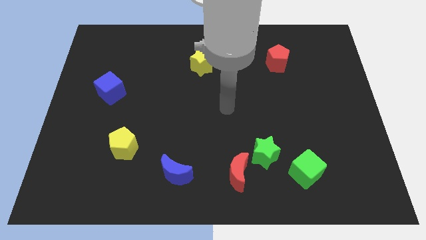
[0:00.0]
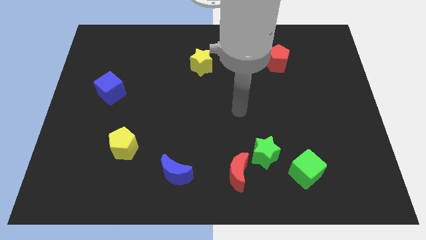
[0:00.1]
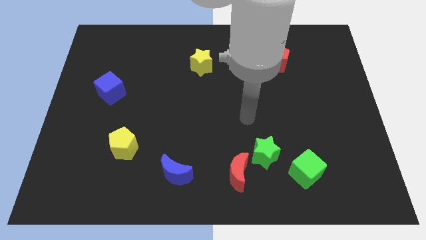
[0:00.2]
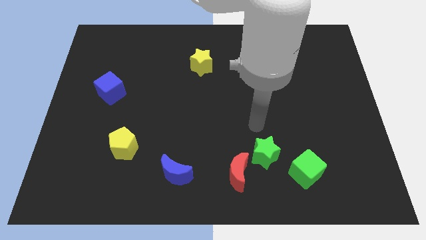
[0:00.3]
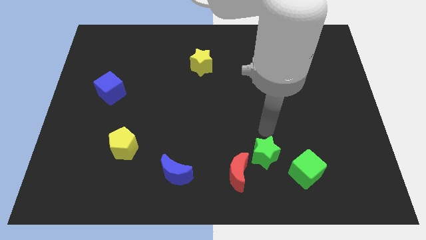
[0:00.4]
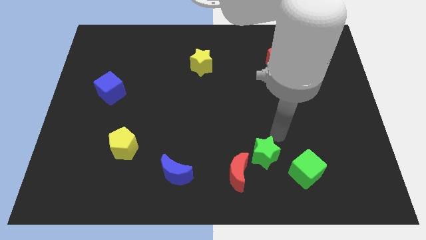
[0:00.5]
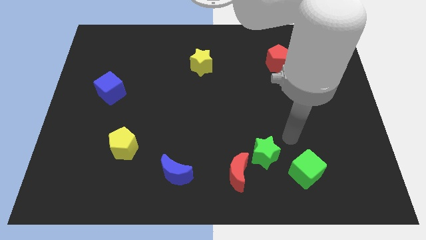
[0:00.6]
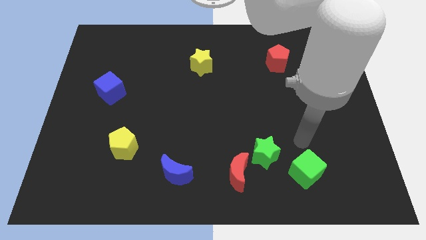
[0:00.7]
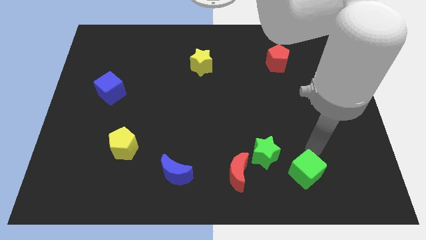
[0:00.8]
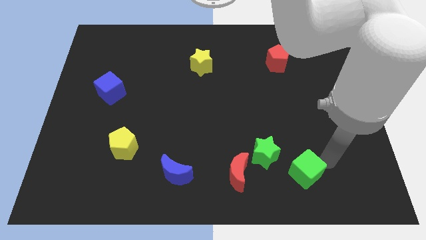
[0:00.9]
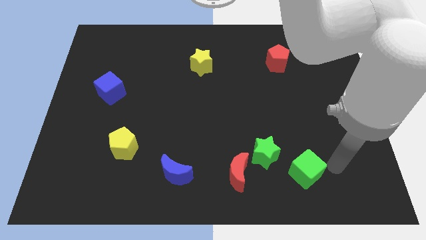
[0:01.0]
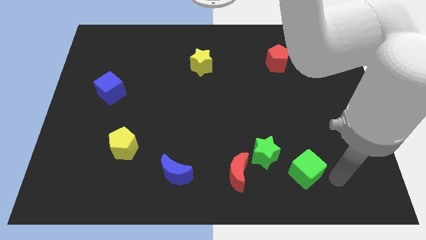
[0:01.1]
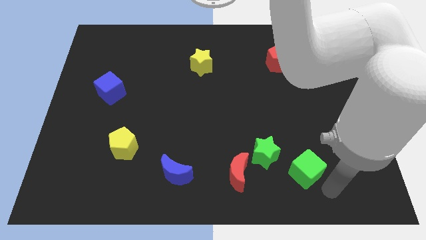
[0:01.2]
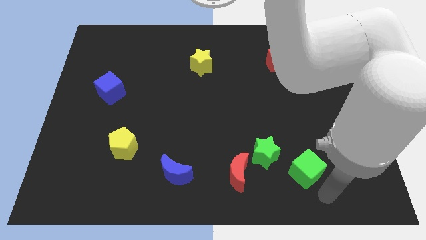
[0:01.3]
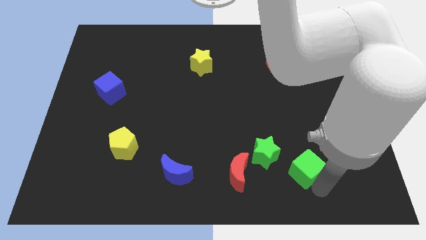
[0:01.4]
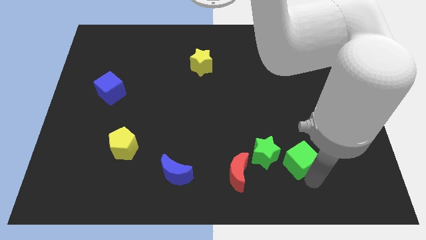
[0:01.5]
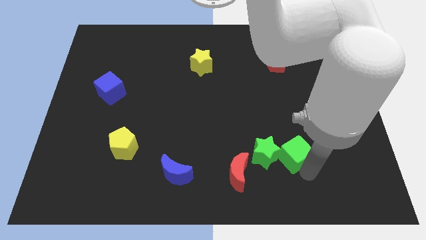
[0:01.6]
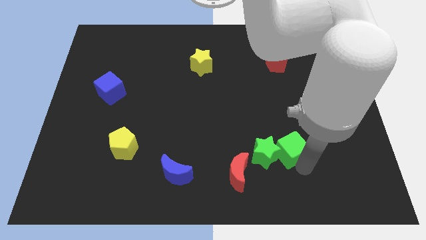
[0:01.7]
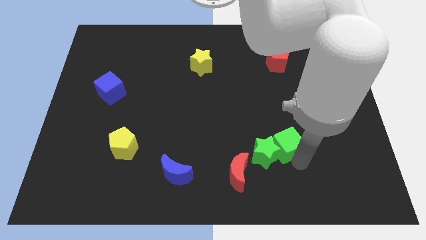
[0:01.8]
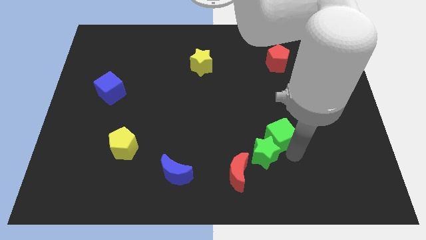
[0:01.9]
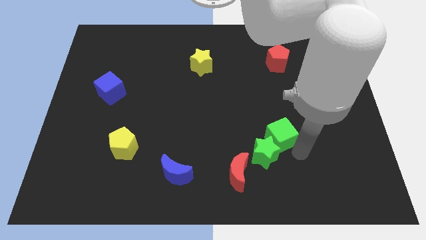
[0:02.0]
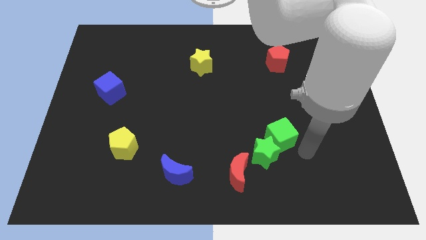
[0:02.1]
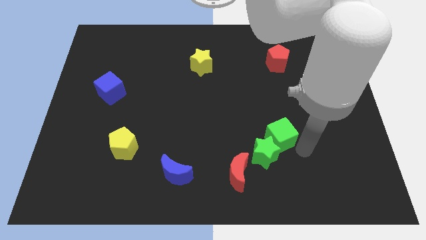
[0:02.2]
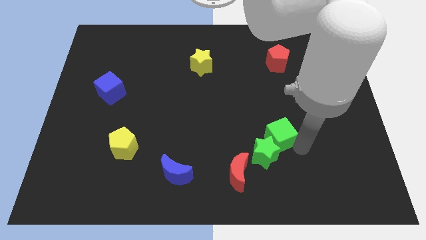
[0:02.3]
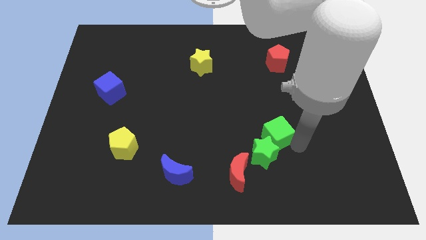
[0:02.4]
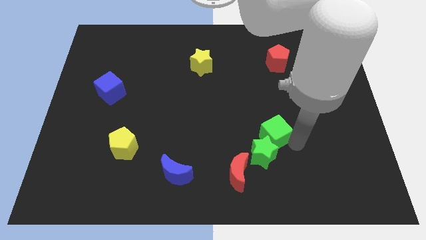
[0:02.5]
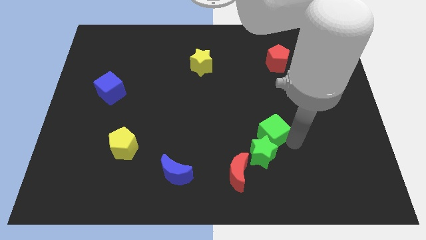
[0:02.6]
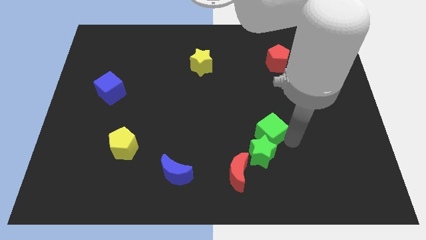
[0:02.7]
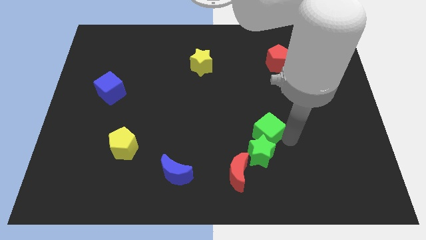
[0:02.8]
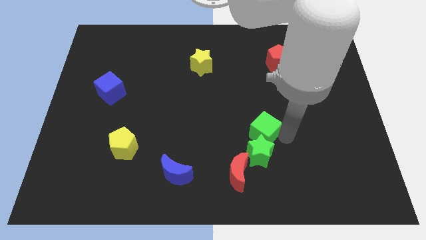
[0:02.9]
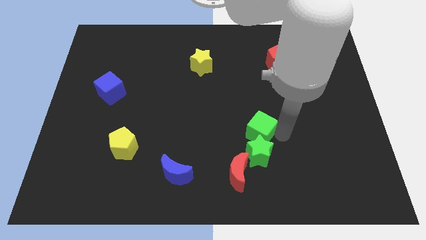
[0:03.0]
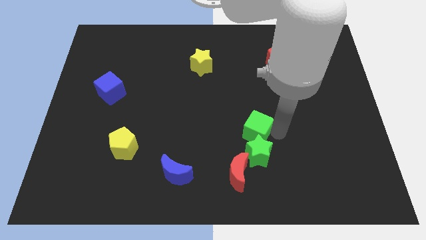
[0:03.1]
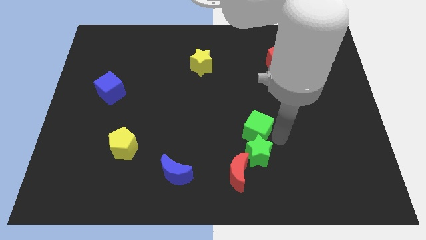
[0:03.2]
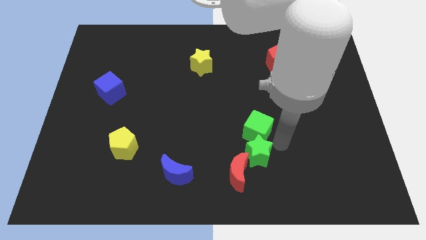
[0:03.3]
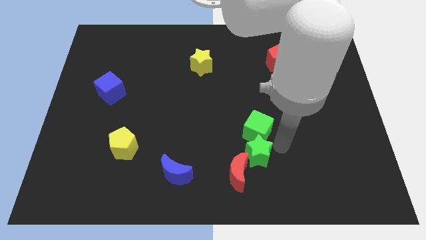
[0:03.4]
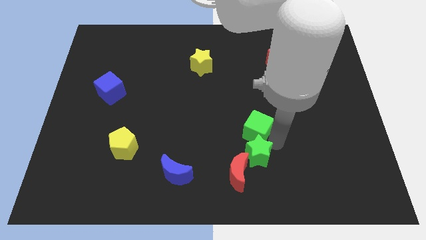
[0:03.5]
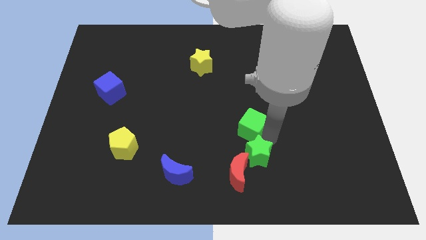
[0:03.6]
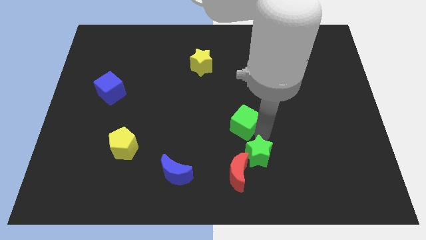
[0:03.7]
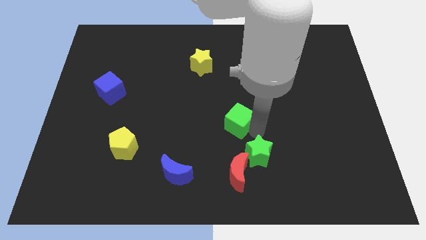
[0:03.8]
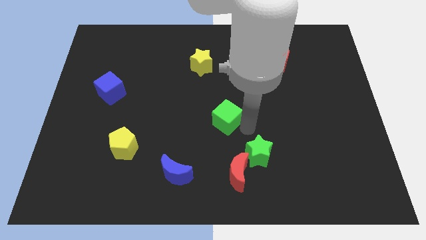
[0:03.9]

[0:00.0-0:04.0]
push the green cube upwards and left

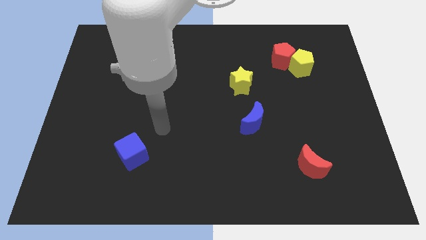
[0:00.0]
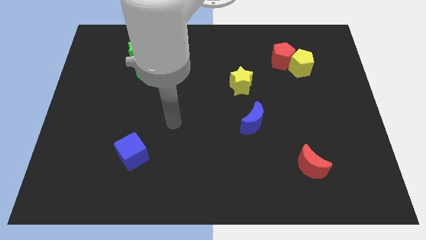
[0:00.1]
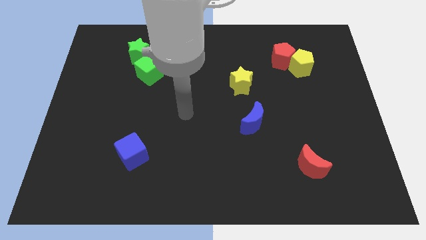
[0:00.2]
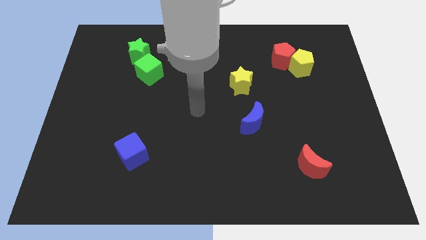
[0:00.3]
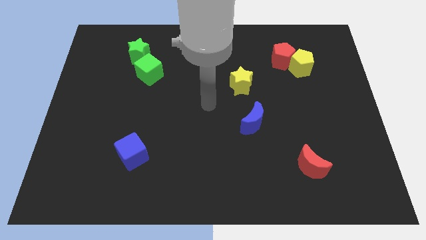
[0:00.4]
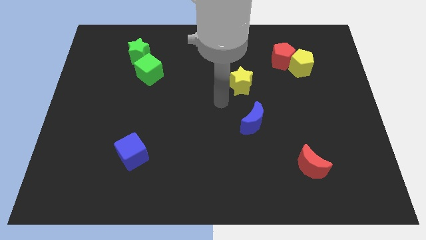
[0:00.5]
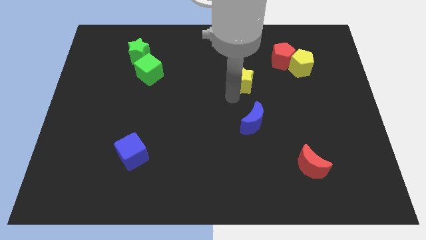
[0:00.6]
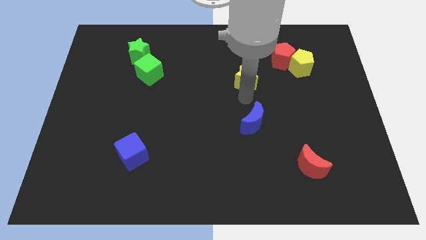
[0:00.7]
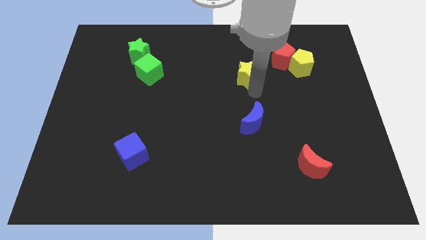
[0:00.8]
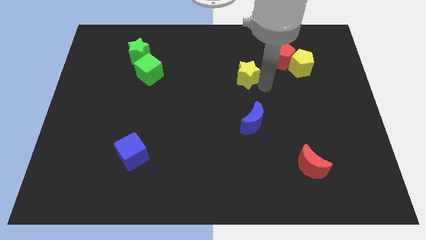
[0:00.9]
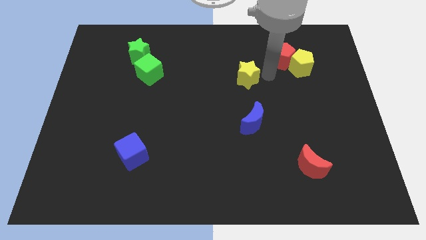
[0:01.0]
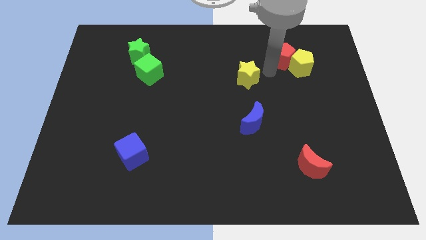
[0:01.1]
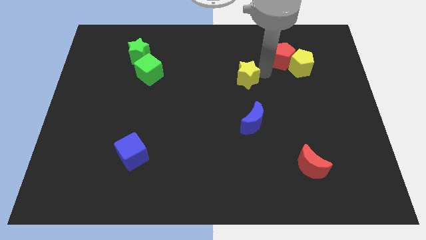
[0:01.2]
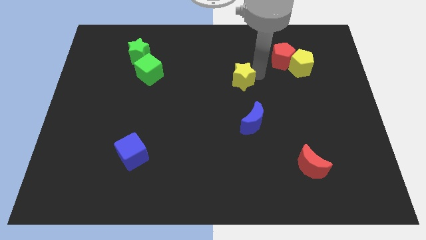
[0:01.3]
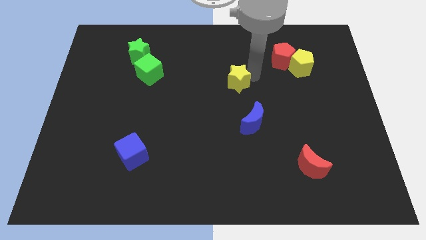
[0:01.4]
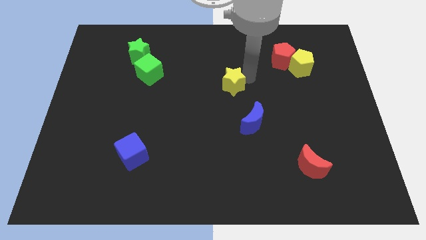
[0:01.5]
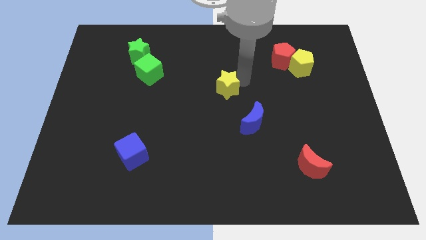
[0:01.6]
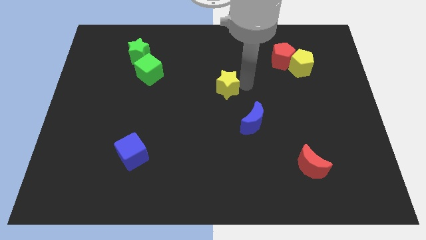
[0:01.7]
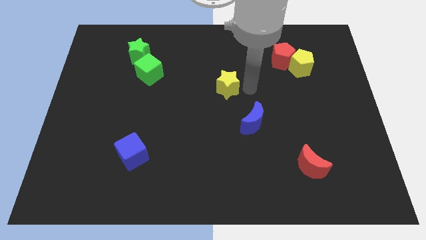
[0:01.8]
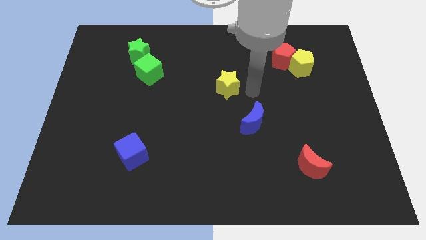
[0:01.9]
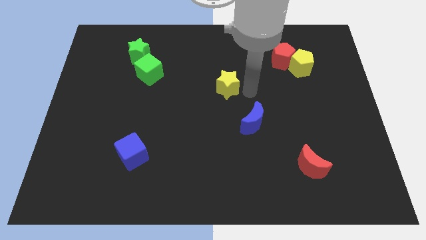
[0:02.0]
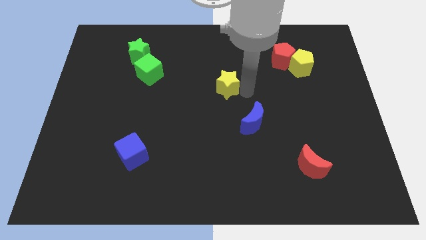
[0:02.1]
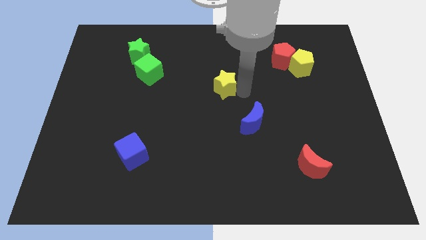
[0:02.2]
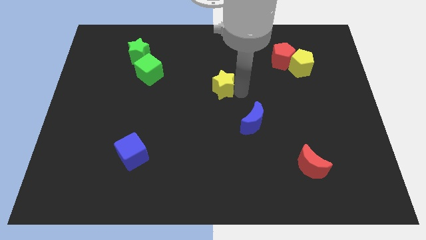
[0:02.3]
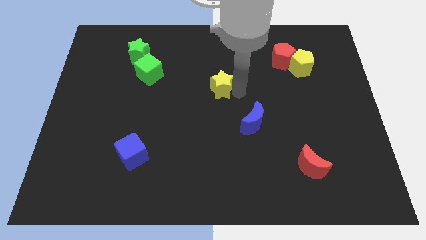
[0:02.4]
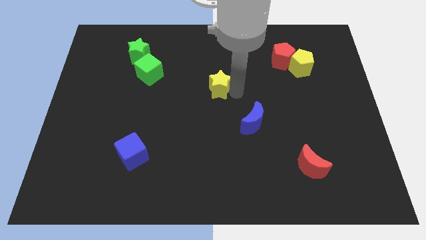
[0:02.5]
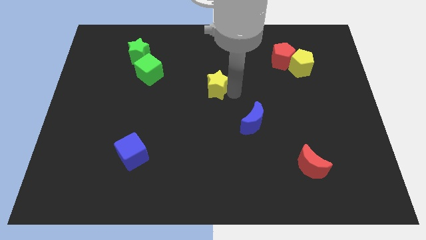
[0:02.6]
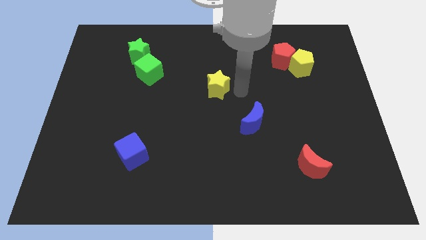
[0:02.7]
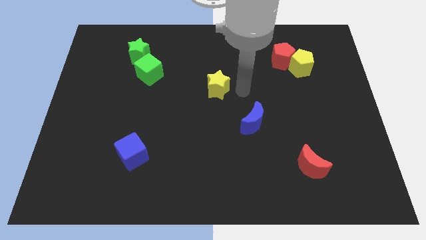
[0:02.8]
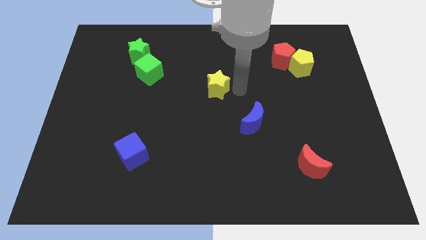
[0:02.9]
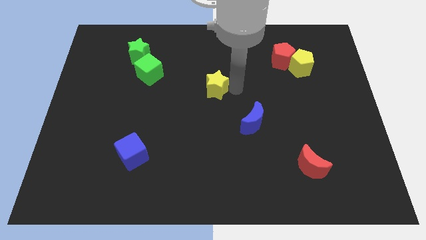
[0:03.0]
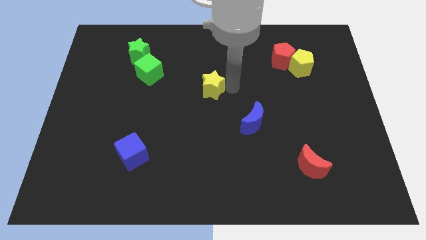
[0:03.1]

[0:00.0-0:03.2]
move the yellow star a little left

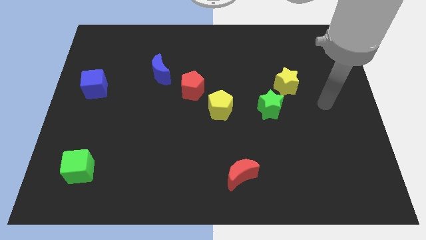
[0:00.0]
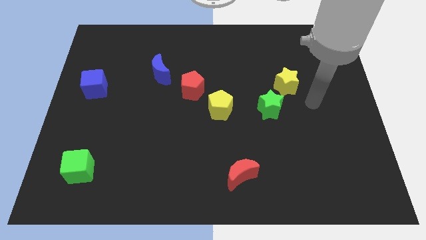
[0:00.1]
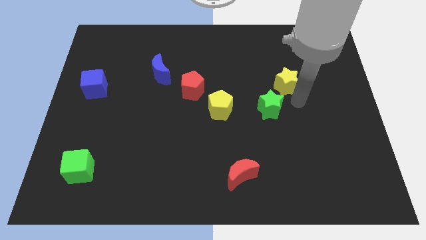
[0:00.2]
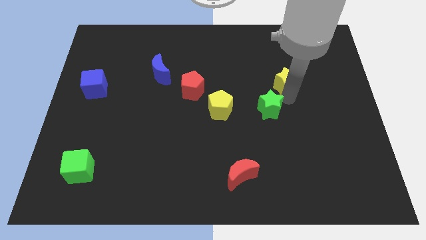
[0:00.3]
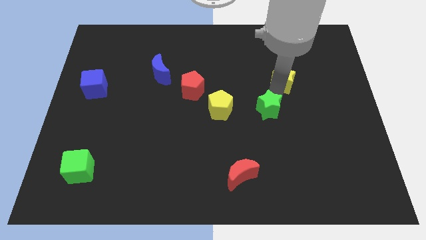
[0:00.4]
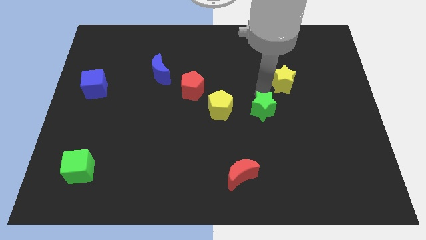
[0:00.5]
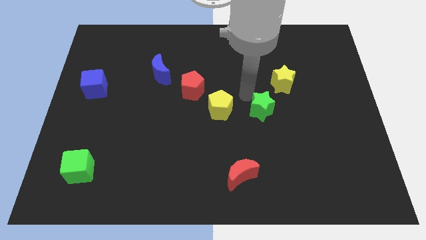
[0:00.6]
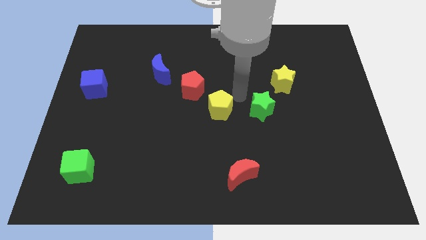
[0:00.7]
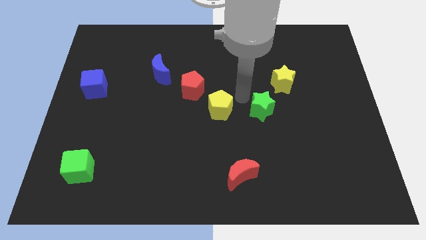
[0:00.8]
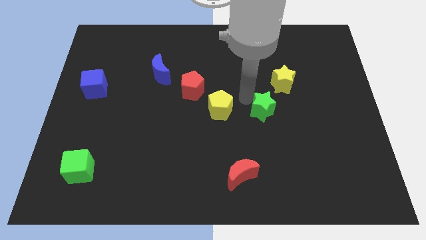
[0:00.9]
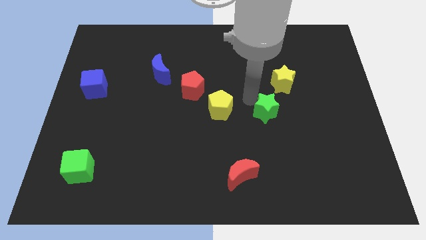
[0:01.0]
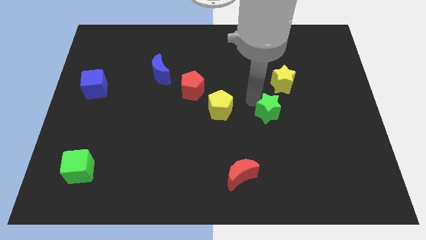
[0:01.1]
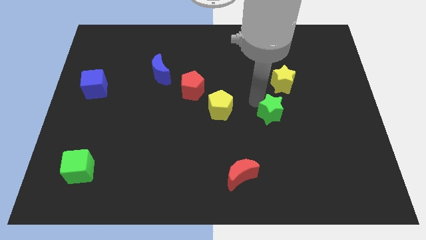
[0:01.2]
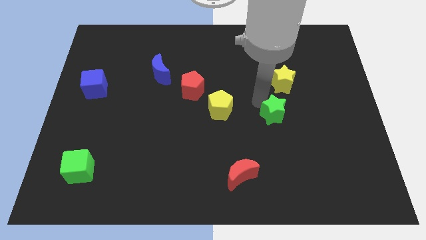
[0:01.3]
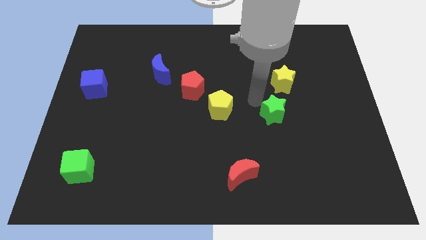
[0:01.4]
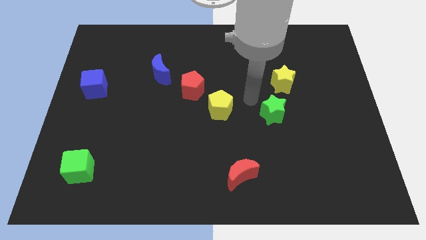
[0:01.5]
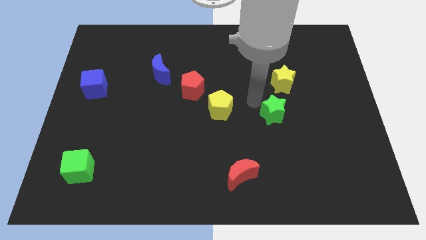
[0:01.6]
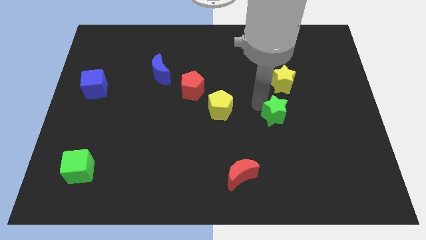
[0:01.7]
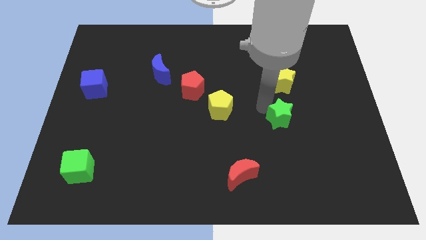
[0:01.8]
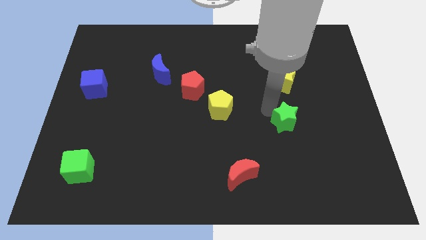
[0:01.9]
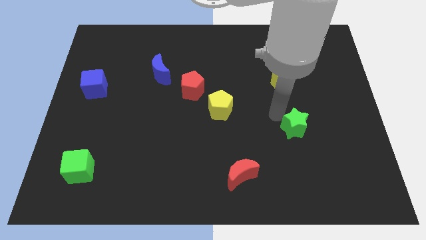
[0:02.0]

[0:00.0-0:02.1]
slide the green star downwards and right a little
